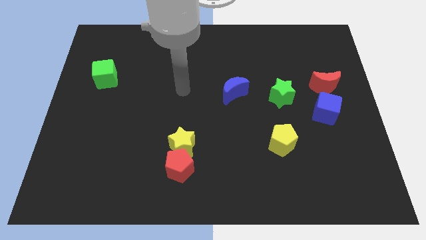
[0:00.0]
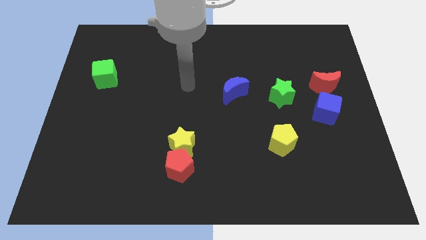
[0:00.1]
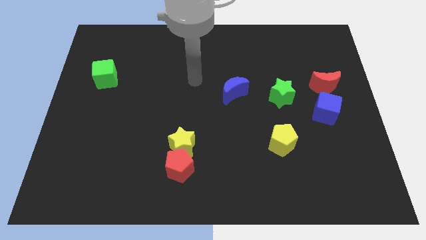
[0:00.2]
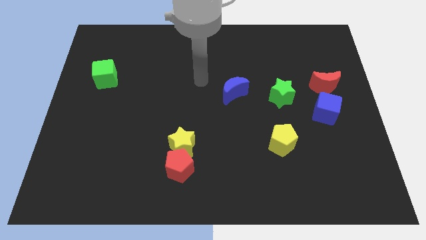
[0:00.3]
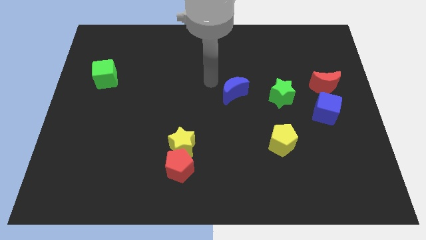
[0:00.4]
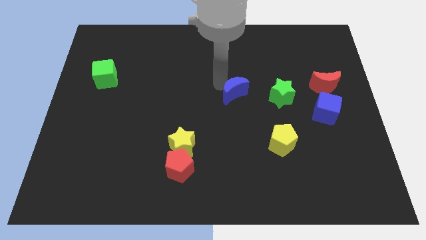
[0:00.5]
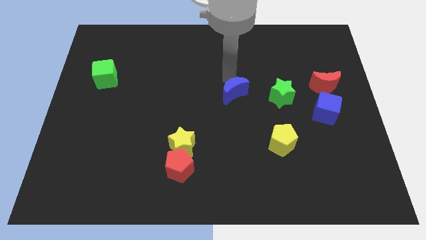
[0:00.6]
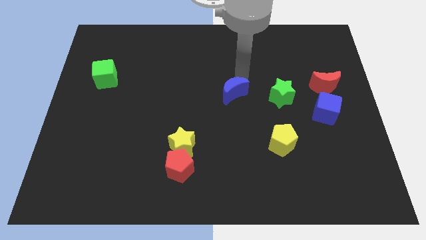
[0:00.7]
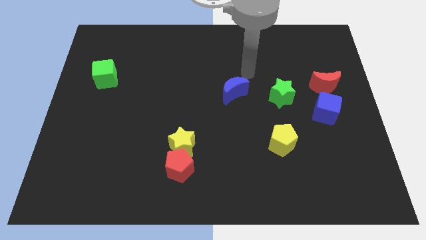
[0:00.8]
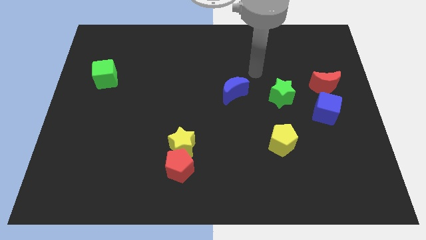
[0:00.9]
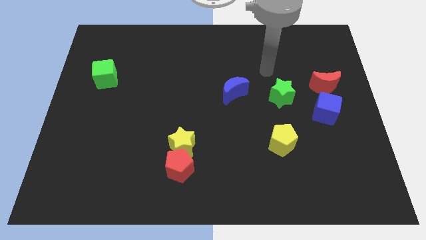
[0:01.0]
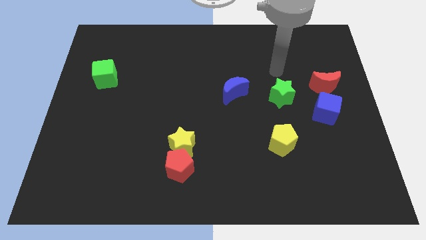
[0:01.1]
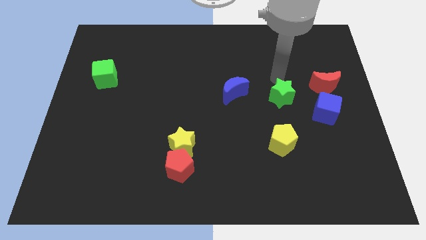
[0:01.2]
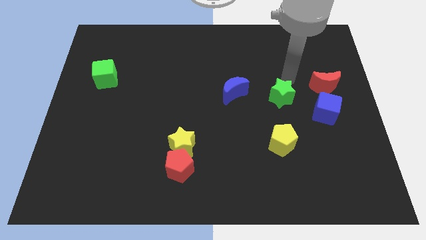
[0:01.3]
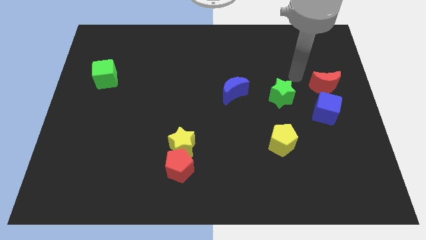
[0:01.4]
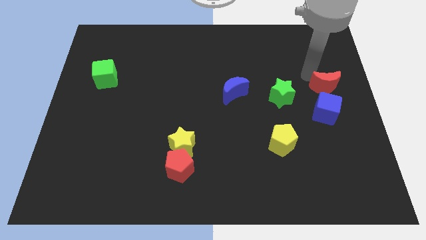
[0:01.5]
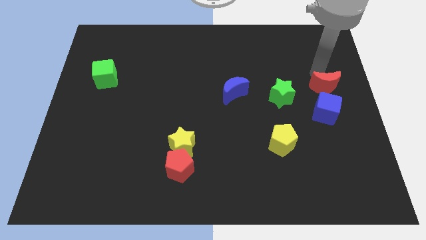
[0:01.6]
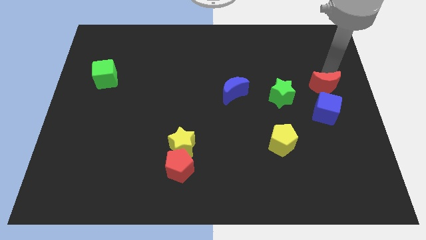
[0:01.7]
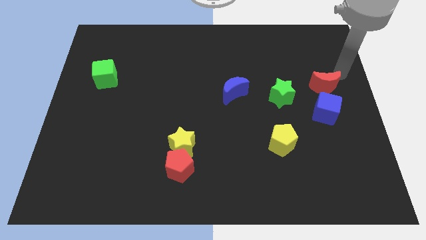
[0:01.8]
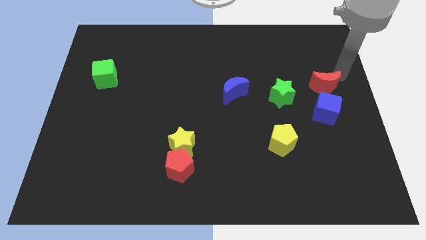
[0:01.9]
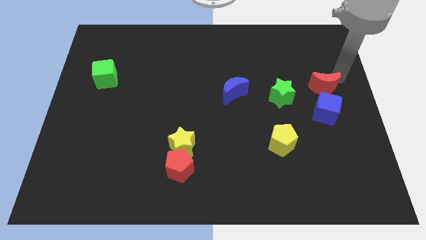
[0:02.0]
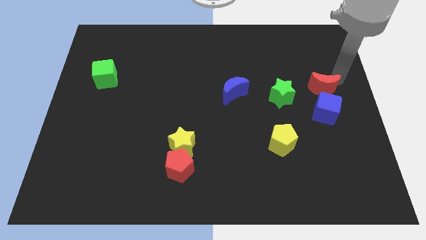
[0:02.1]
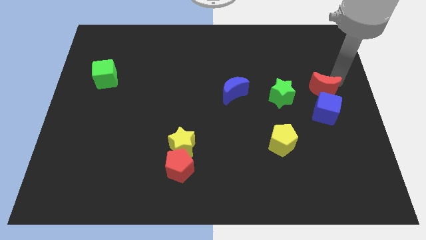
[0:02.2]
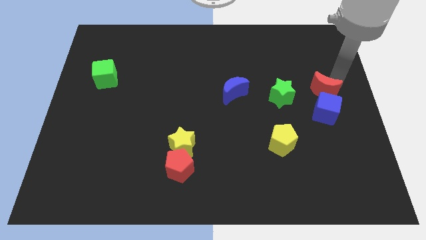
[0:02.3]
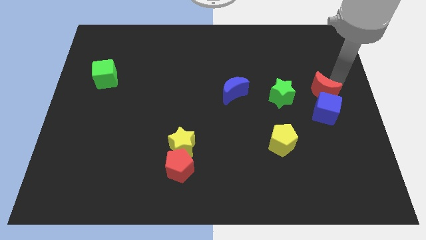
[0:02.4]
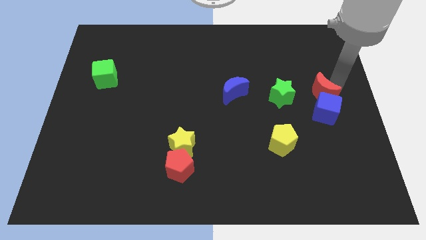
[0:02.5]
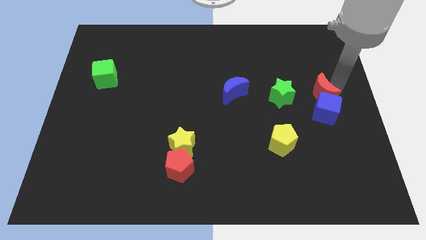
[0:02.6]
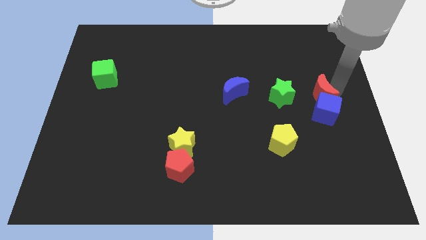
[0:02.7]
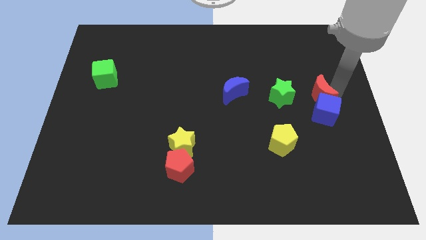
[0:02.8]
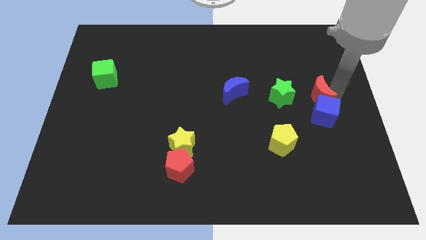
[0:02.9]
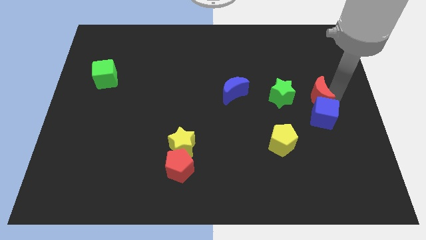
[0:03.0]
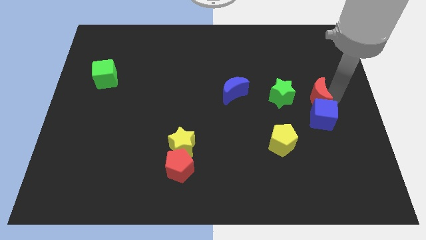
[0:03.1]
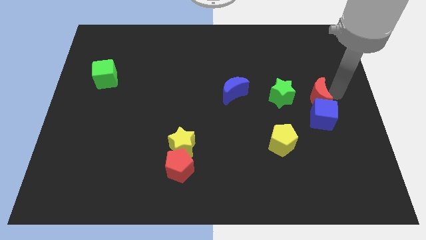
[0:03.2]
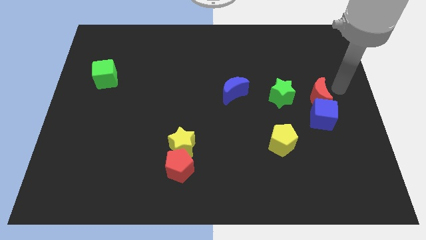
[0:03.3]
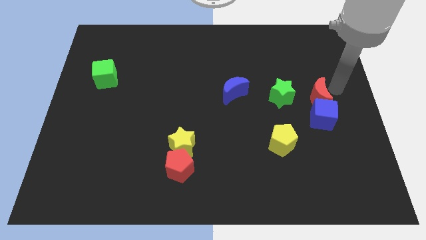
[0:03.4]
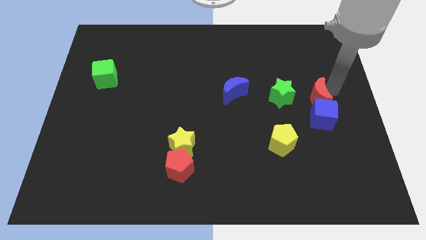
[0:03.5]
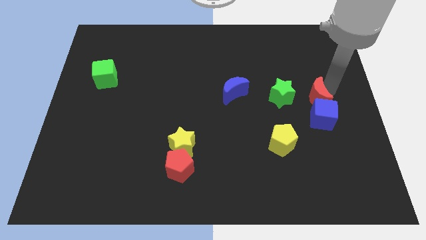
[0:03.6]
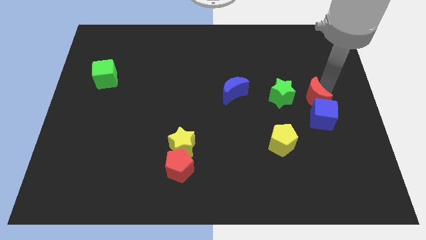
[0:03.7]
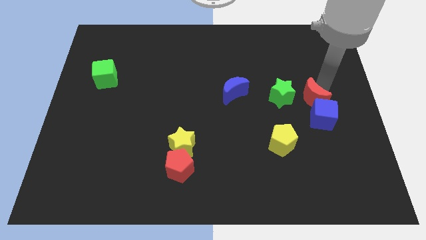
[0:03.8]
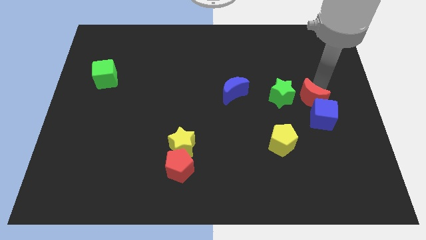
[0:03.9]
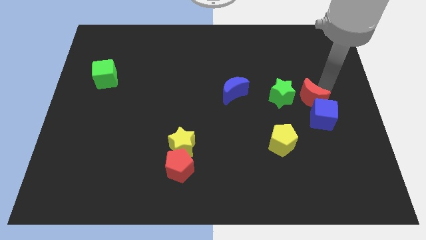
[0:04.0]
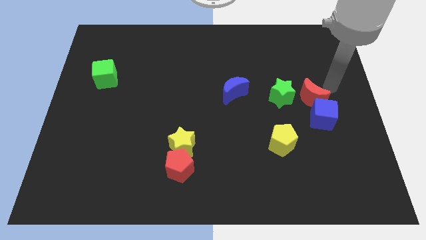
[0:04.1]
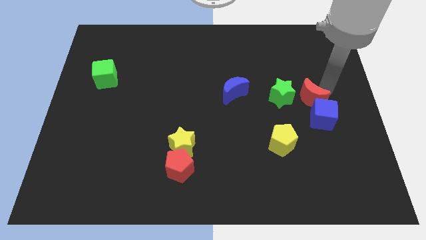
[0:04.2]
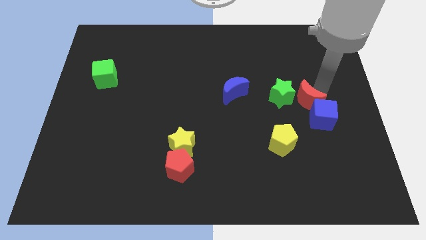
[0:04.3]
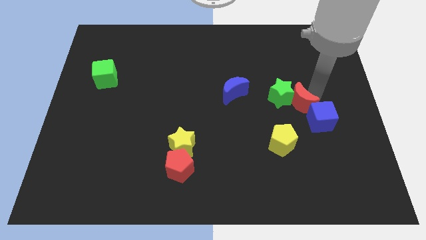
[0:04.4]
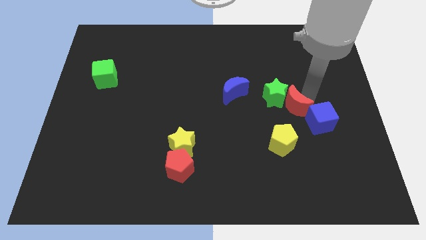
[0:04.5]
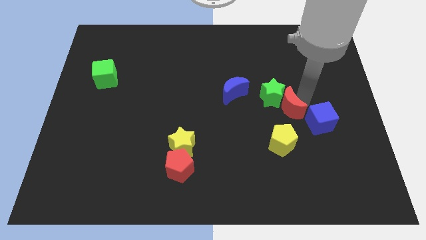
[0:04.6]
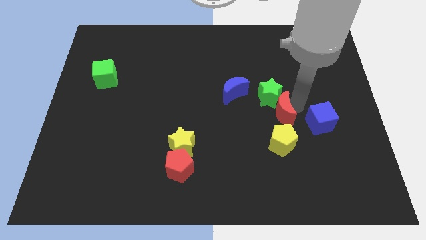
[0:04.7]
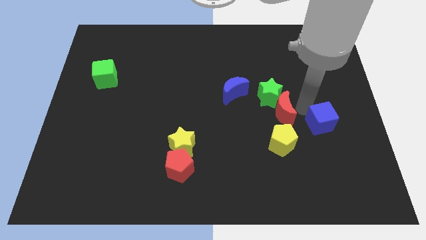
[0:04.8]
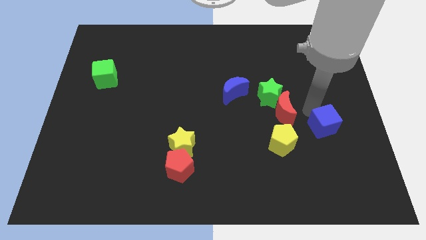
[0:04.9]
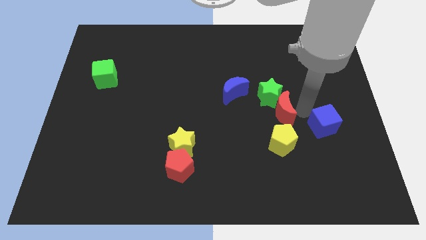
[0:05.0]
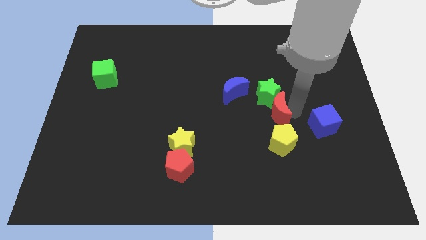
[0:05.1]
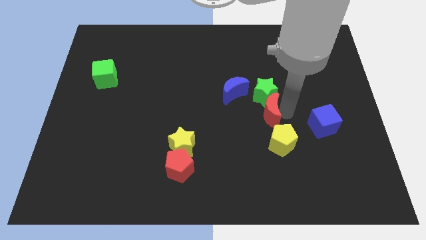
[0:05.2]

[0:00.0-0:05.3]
push the red moon diagonally down and to the left of the green star

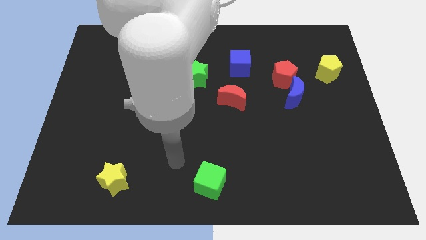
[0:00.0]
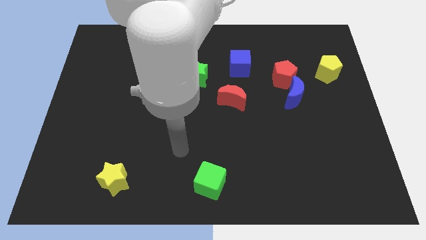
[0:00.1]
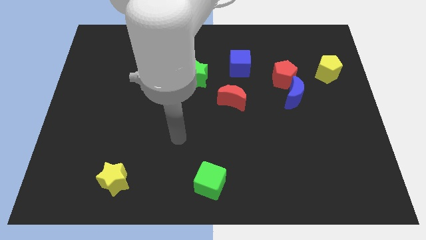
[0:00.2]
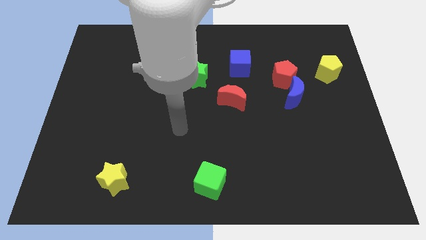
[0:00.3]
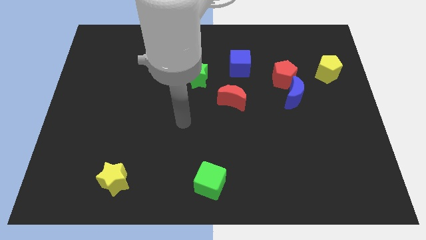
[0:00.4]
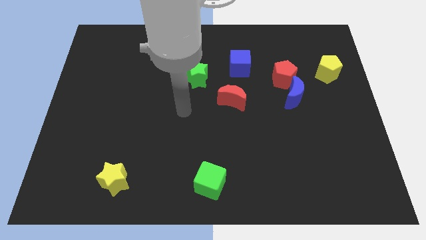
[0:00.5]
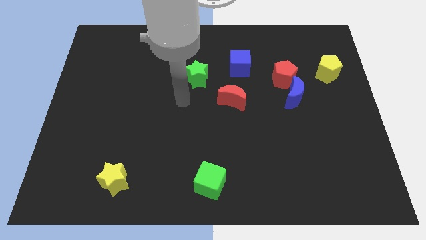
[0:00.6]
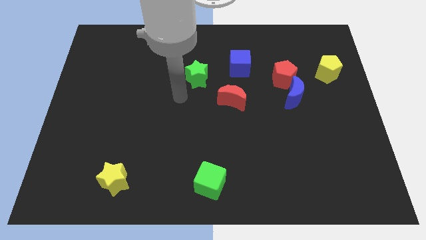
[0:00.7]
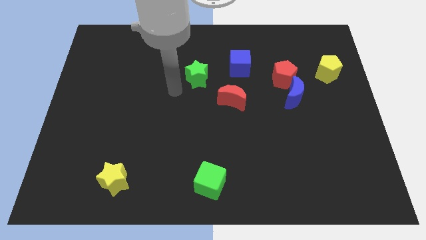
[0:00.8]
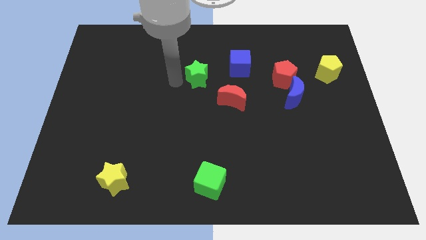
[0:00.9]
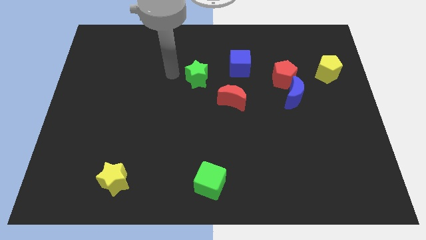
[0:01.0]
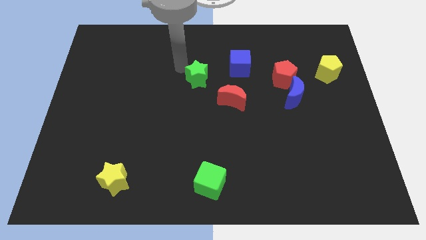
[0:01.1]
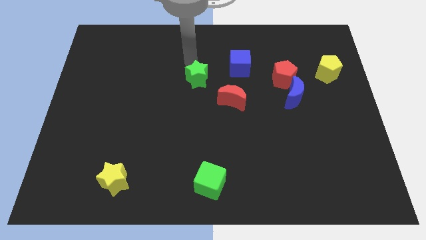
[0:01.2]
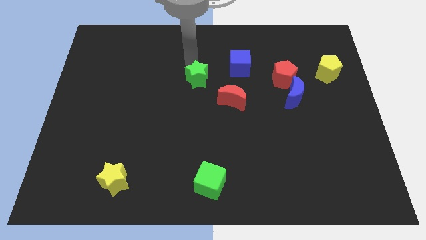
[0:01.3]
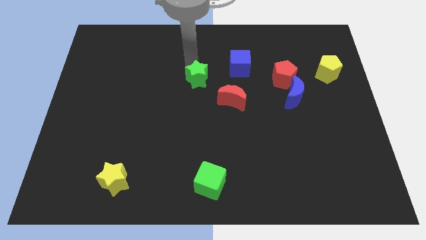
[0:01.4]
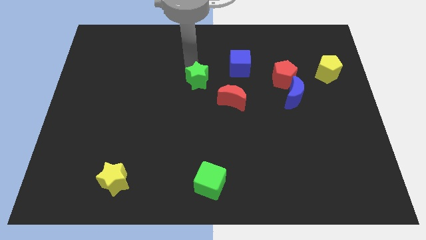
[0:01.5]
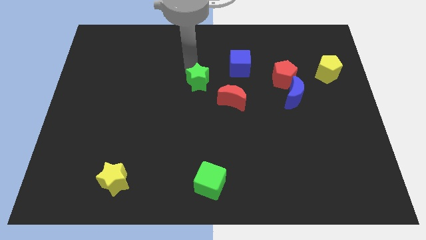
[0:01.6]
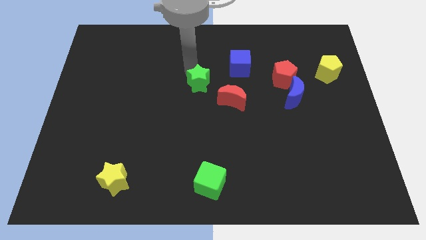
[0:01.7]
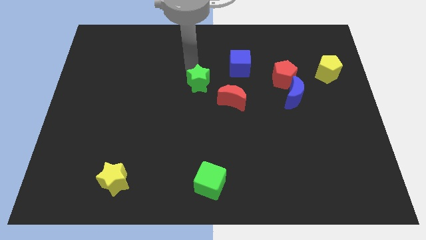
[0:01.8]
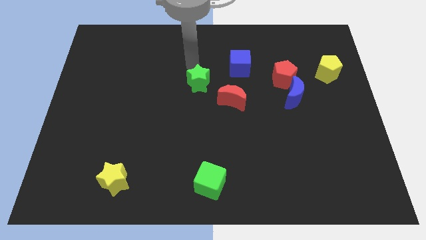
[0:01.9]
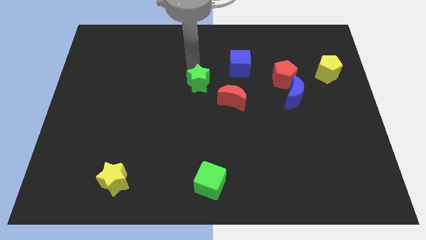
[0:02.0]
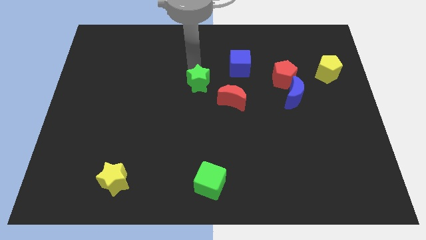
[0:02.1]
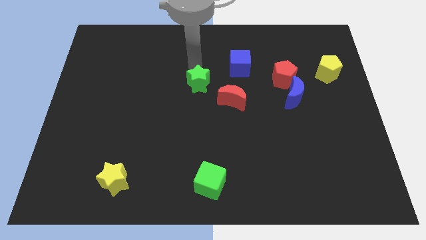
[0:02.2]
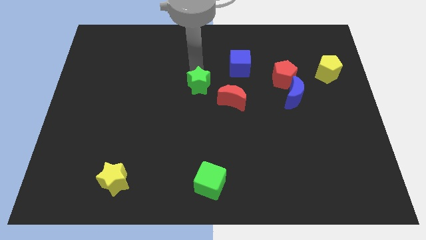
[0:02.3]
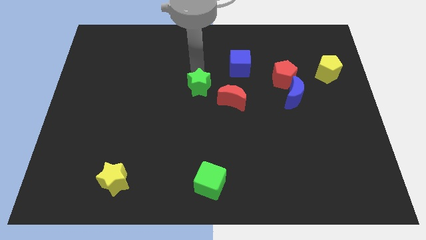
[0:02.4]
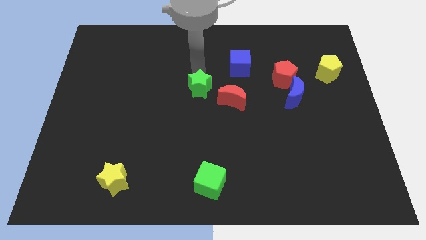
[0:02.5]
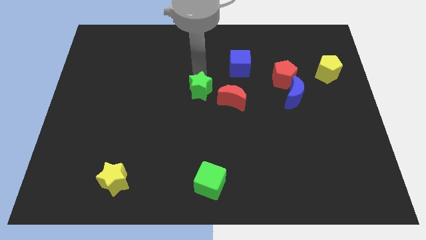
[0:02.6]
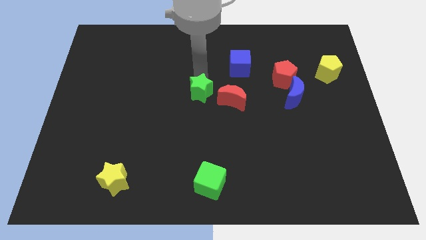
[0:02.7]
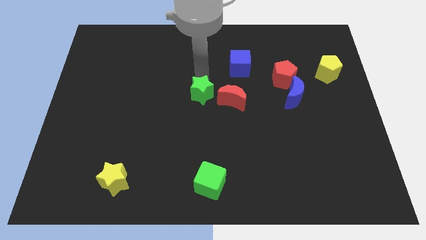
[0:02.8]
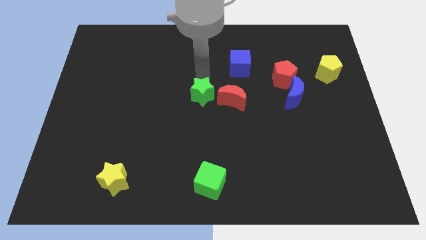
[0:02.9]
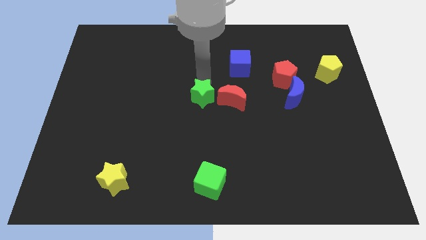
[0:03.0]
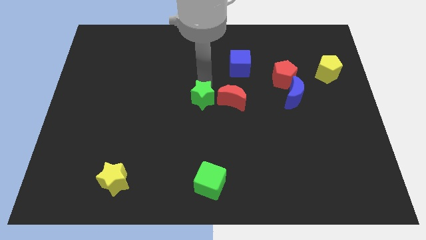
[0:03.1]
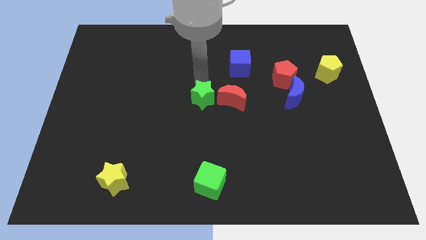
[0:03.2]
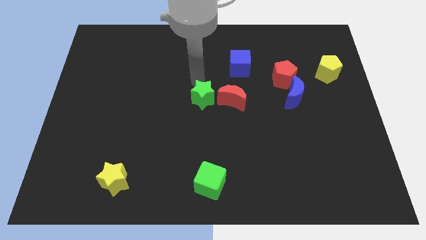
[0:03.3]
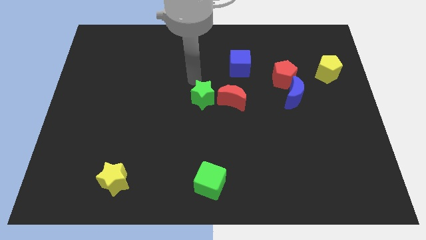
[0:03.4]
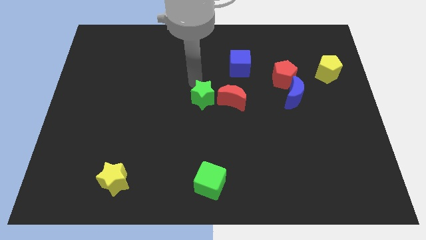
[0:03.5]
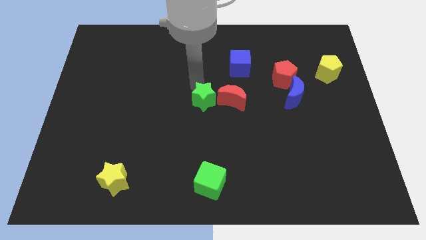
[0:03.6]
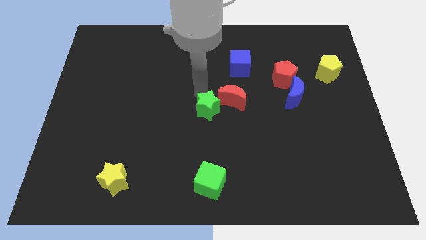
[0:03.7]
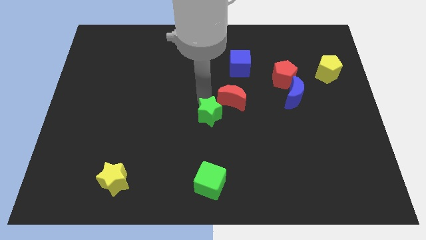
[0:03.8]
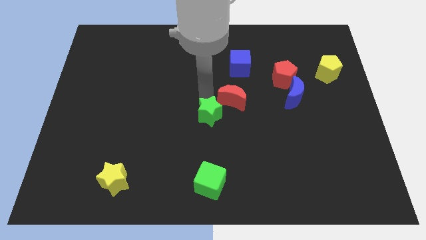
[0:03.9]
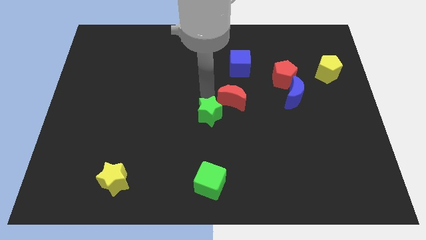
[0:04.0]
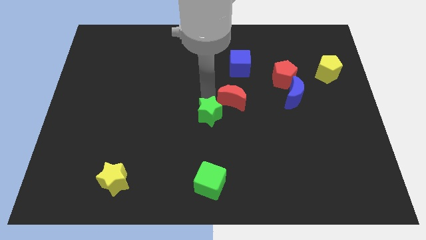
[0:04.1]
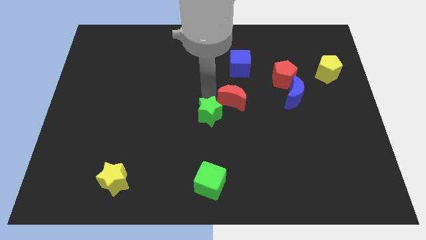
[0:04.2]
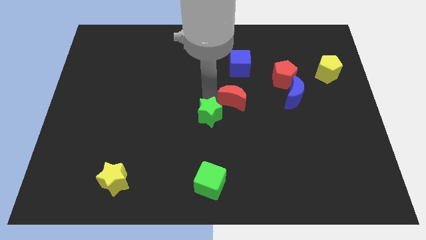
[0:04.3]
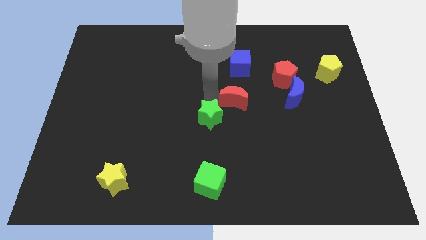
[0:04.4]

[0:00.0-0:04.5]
push the green star to the top of the green cube
